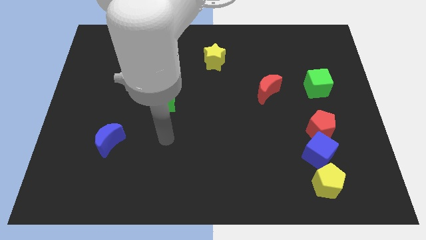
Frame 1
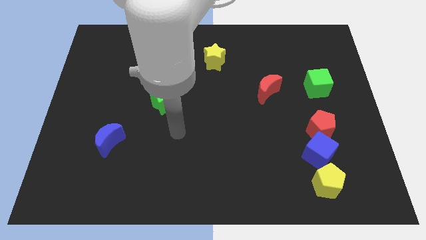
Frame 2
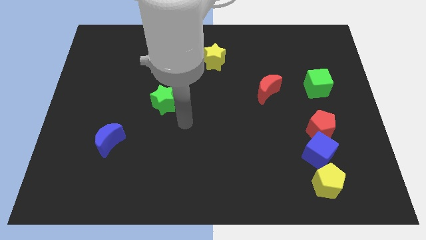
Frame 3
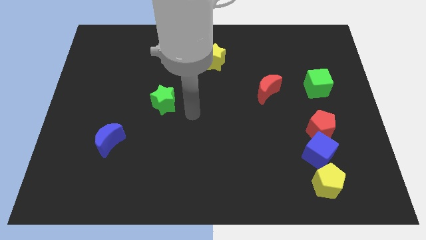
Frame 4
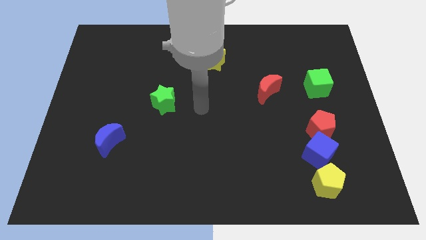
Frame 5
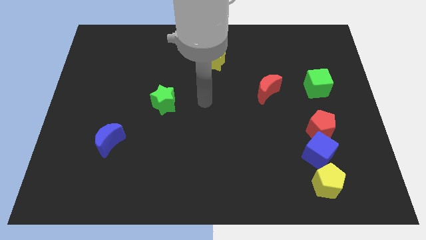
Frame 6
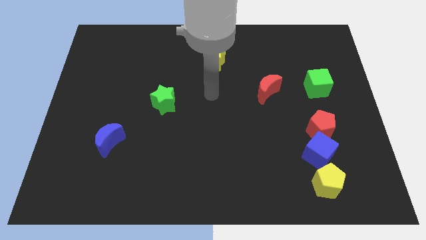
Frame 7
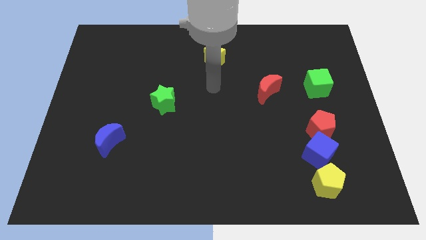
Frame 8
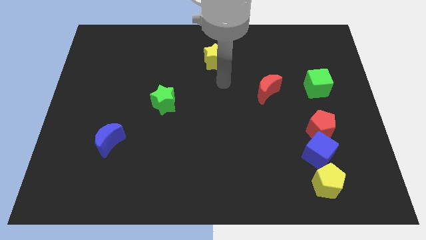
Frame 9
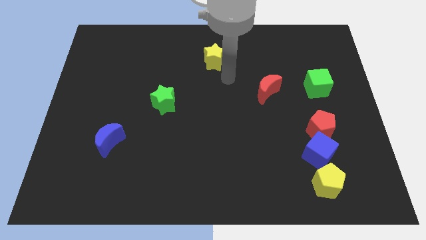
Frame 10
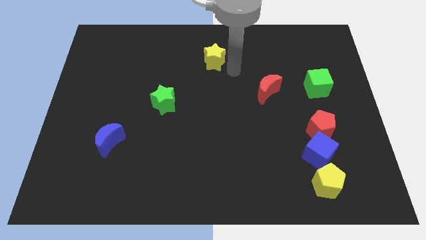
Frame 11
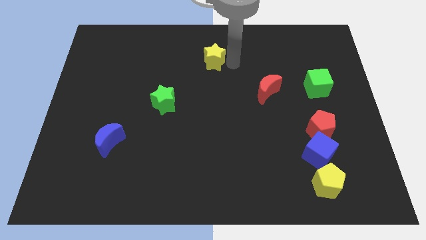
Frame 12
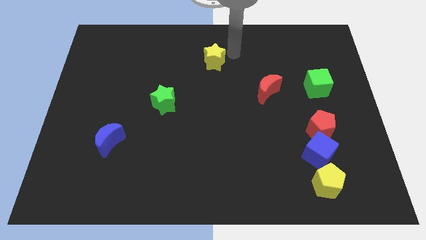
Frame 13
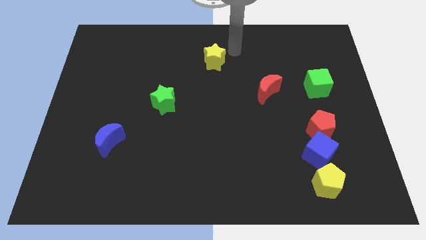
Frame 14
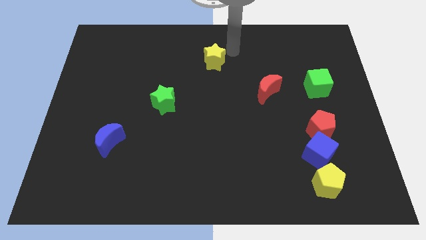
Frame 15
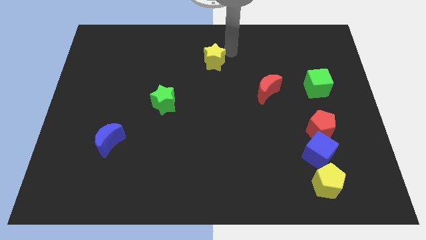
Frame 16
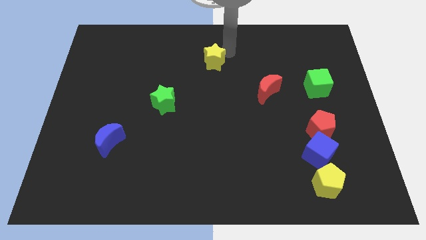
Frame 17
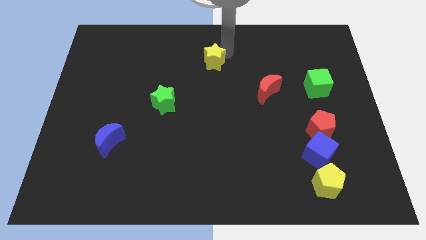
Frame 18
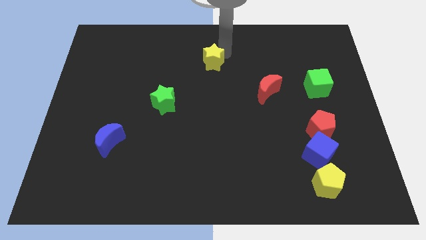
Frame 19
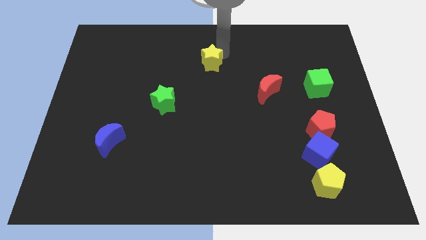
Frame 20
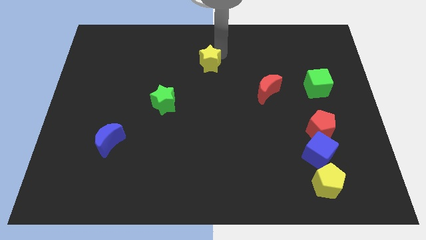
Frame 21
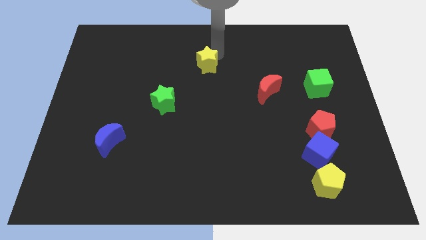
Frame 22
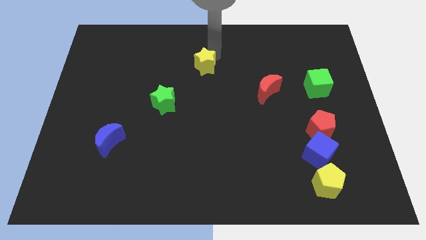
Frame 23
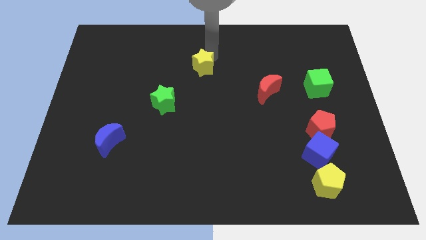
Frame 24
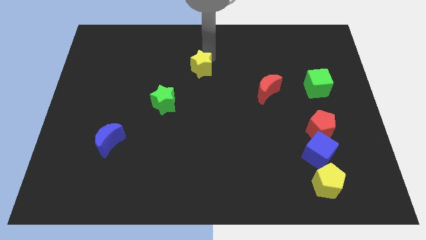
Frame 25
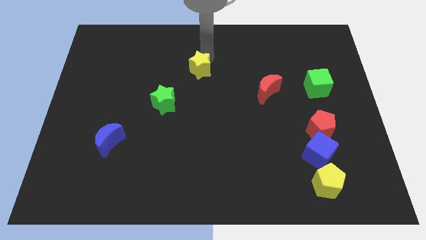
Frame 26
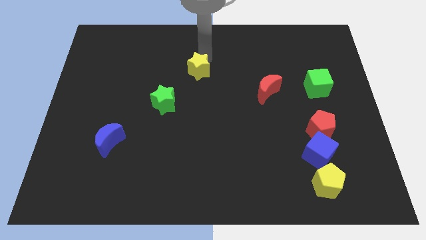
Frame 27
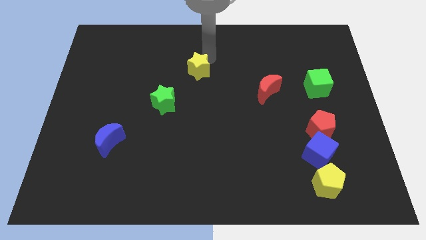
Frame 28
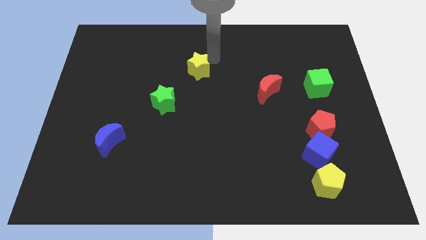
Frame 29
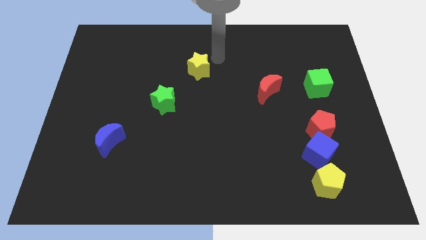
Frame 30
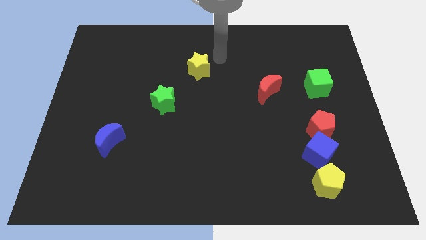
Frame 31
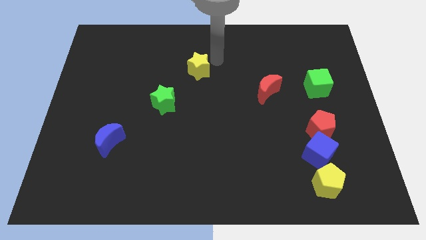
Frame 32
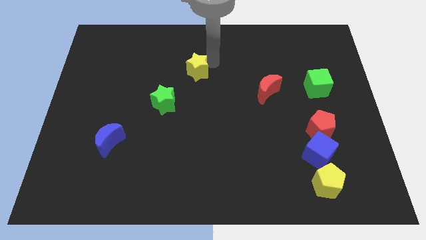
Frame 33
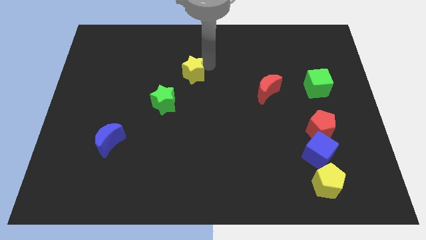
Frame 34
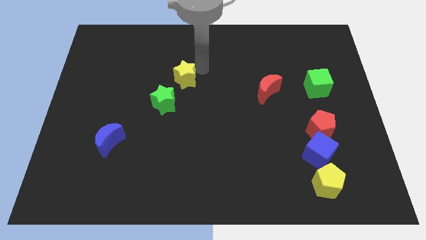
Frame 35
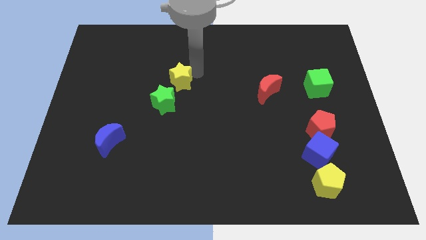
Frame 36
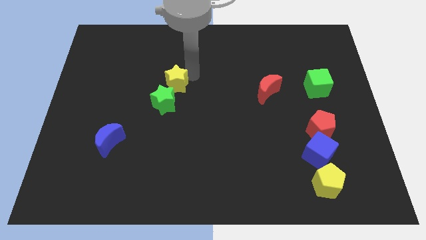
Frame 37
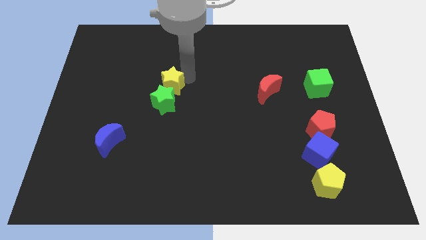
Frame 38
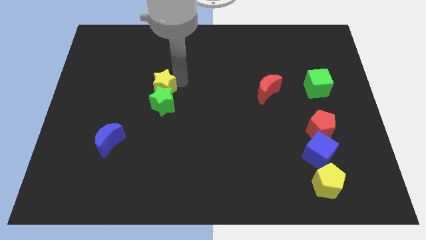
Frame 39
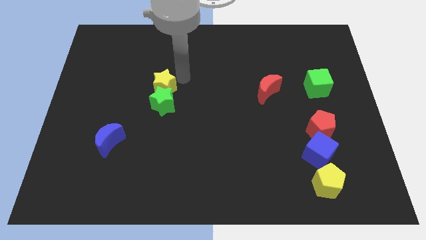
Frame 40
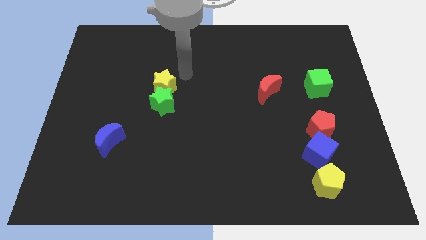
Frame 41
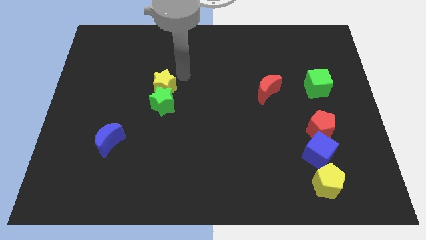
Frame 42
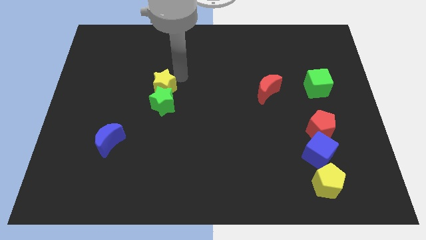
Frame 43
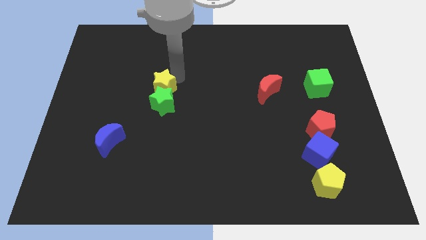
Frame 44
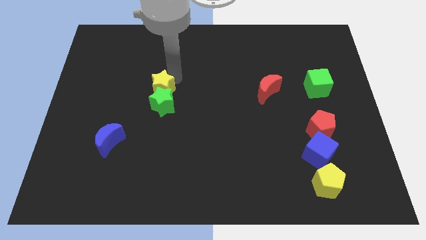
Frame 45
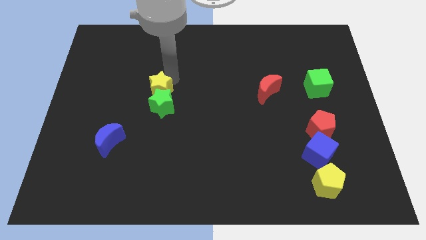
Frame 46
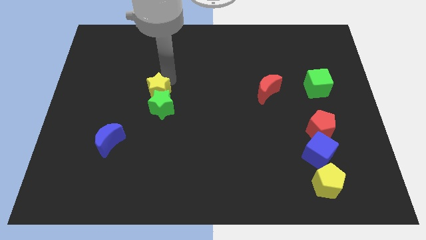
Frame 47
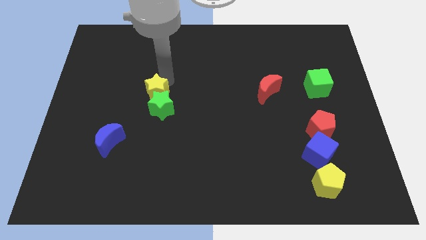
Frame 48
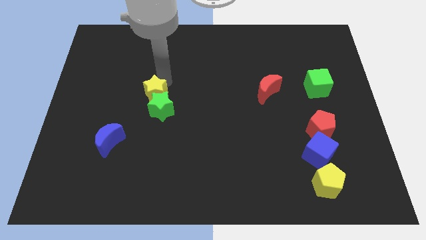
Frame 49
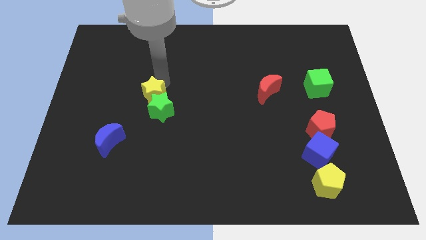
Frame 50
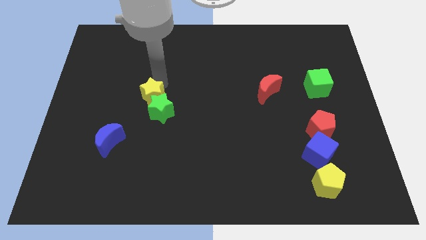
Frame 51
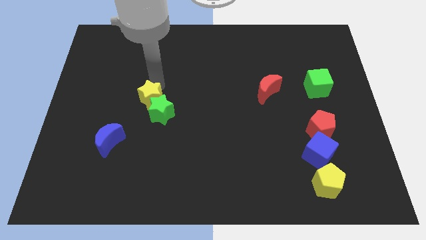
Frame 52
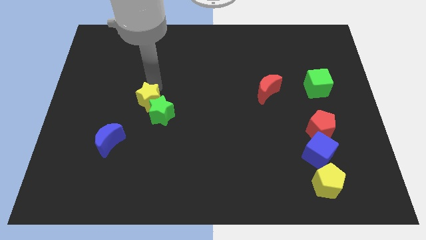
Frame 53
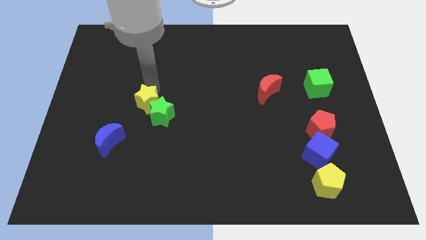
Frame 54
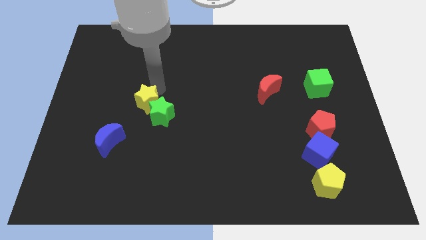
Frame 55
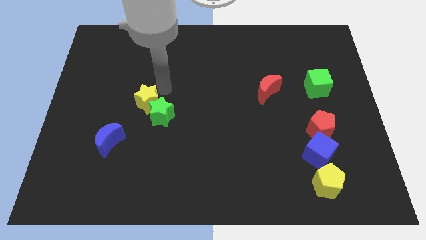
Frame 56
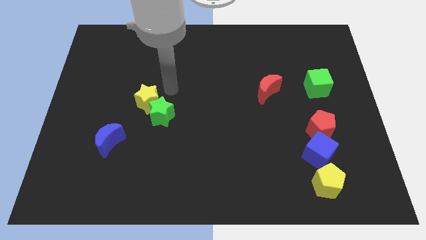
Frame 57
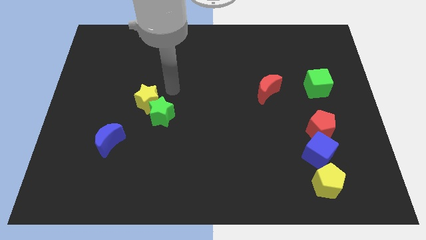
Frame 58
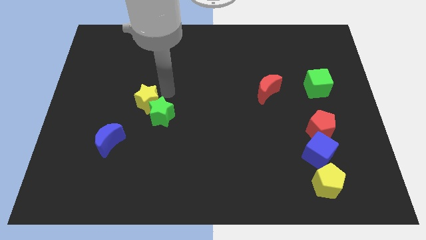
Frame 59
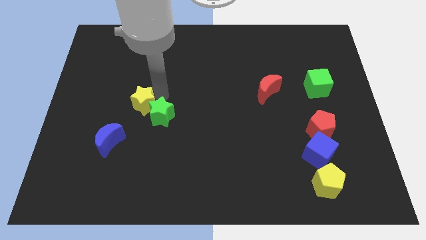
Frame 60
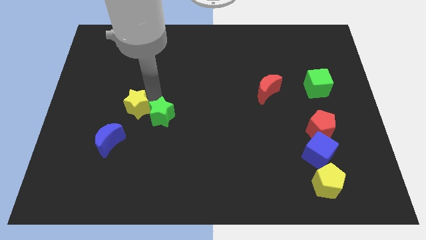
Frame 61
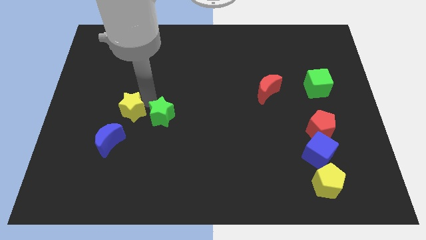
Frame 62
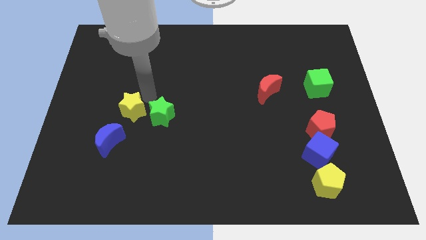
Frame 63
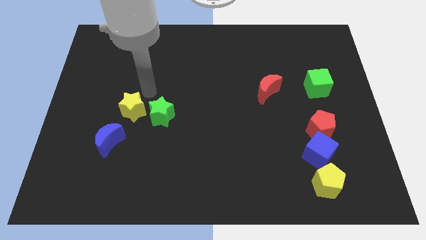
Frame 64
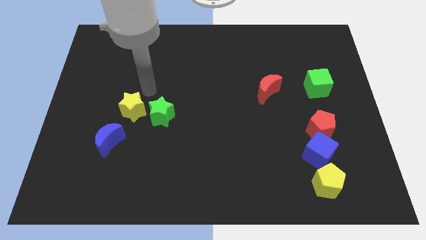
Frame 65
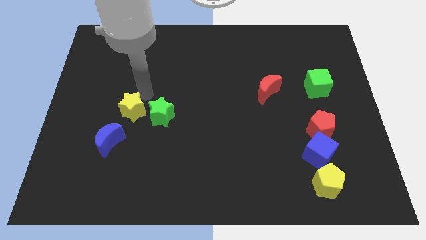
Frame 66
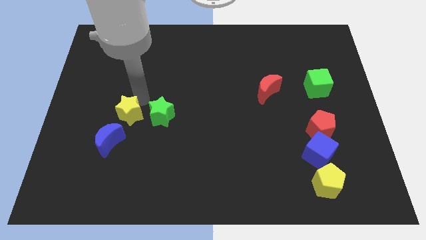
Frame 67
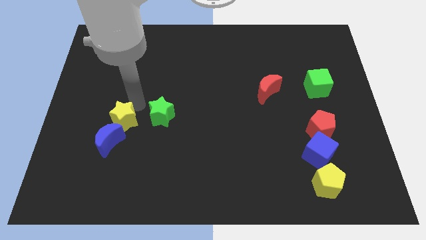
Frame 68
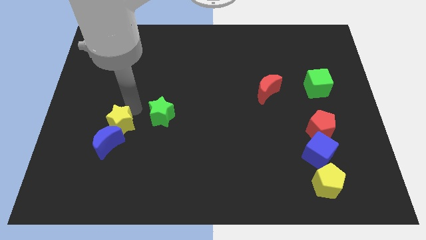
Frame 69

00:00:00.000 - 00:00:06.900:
push the yellow star close to the blue moon
